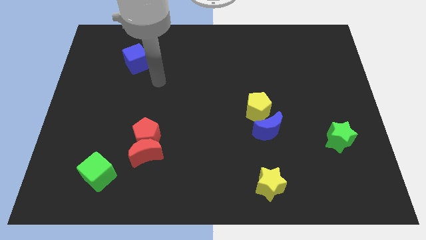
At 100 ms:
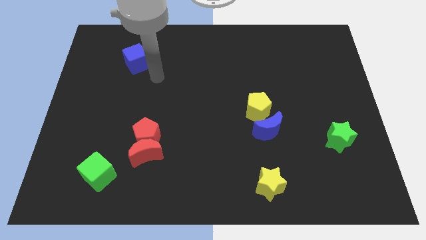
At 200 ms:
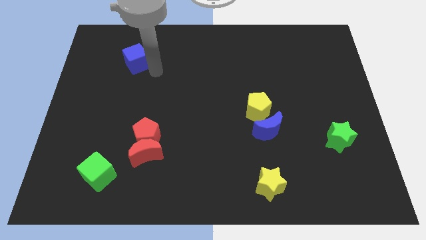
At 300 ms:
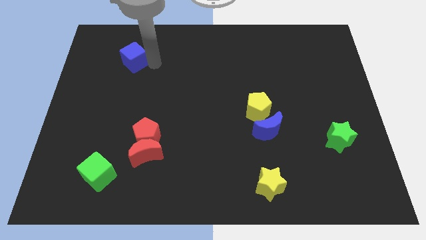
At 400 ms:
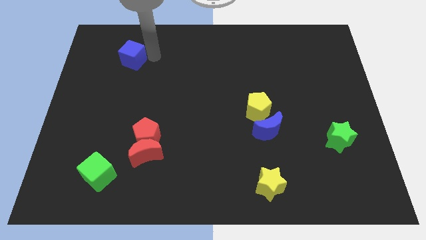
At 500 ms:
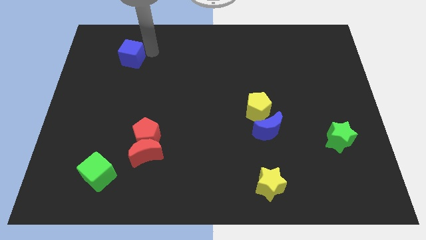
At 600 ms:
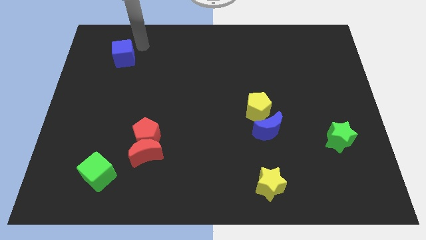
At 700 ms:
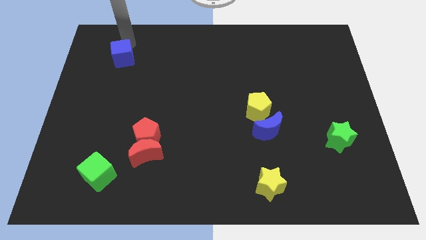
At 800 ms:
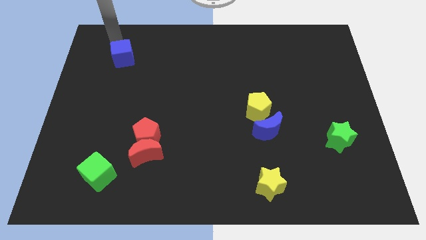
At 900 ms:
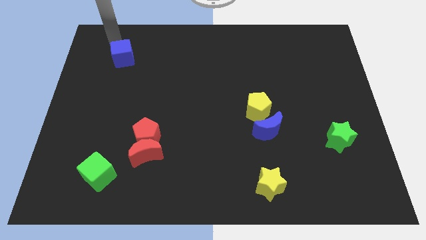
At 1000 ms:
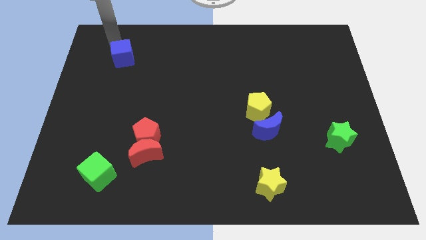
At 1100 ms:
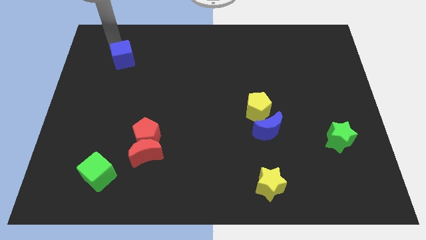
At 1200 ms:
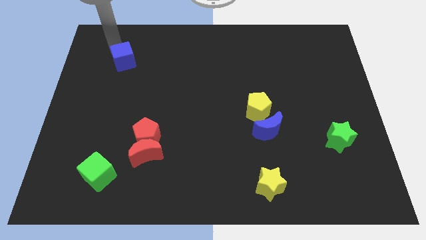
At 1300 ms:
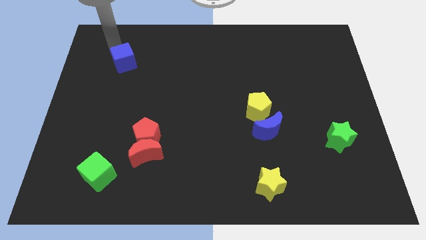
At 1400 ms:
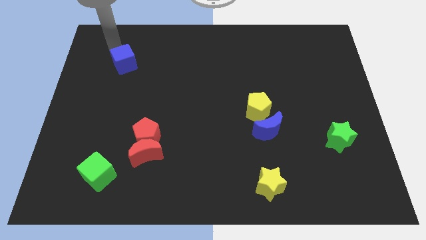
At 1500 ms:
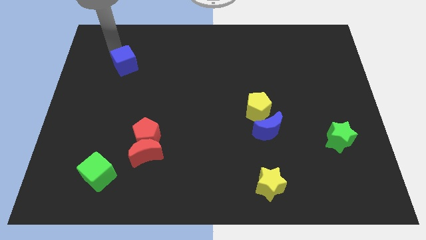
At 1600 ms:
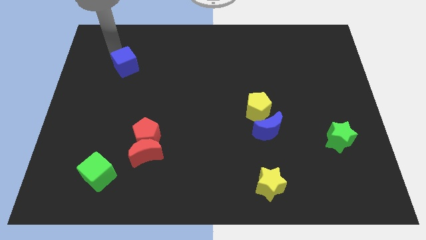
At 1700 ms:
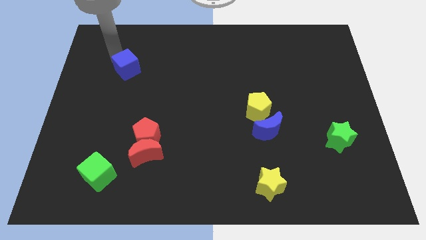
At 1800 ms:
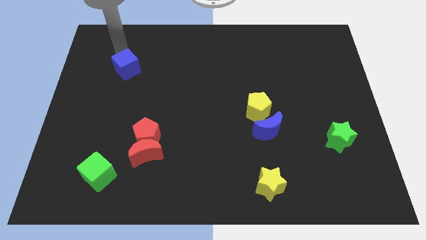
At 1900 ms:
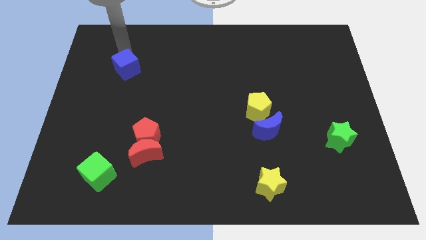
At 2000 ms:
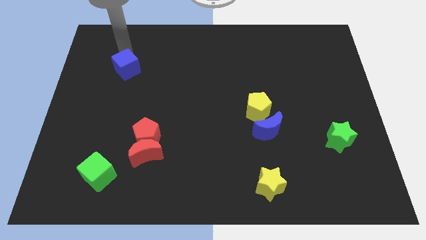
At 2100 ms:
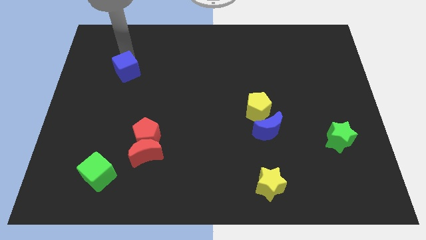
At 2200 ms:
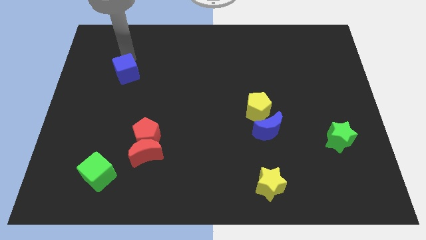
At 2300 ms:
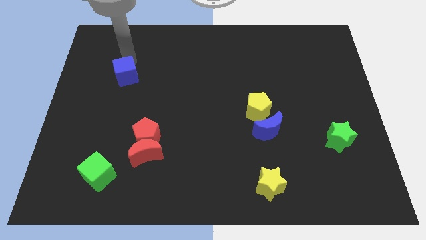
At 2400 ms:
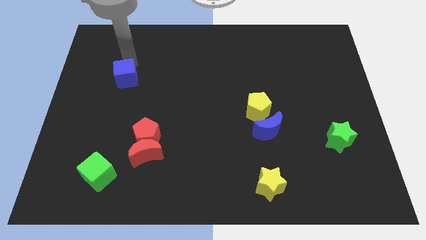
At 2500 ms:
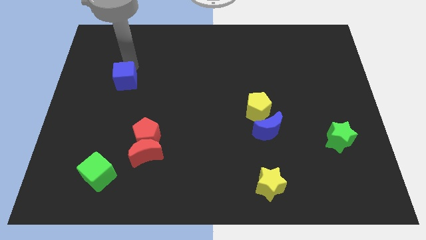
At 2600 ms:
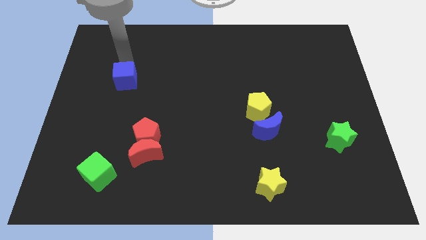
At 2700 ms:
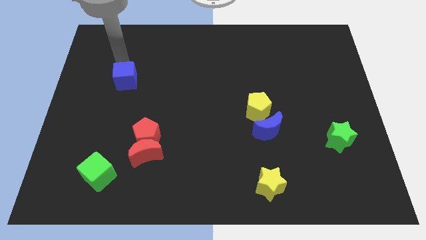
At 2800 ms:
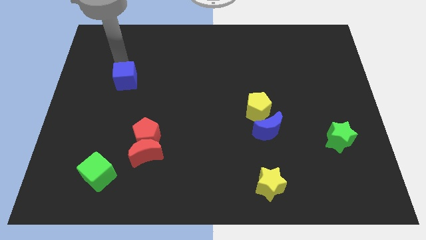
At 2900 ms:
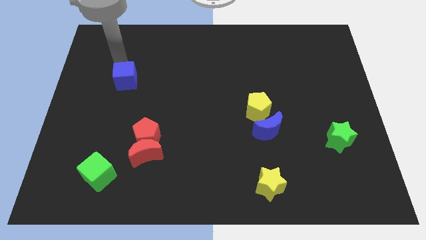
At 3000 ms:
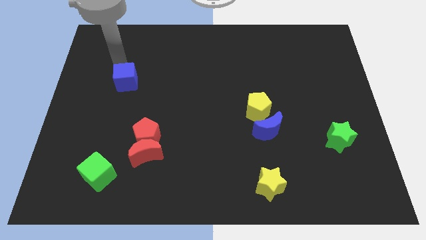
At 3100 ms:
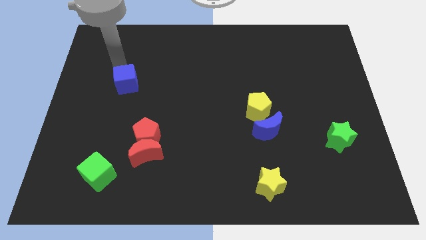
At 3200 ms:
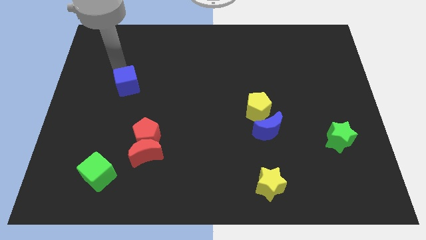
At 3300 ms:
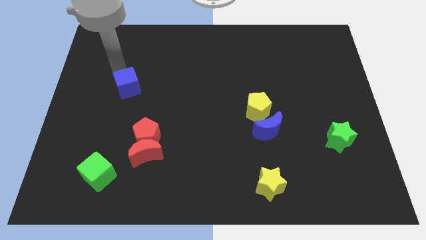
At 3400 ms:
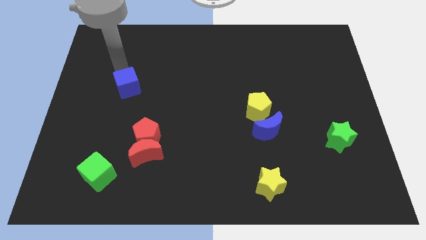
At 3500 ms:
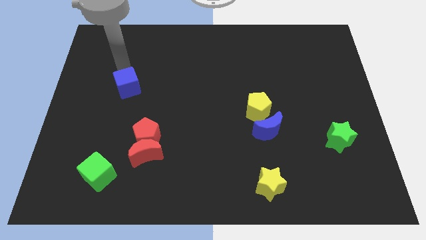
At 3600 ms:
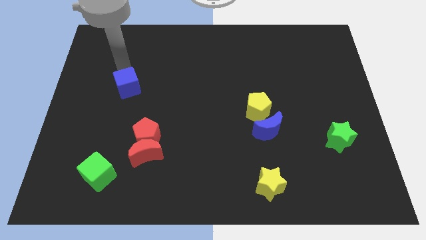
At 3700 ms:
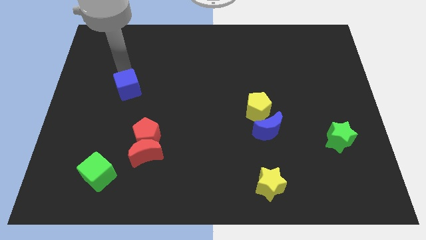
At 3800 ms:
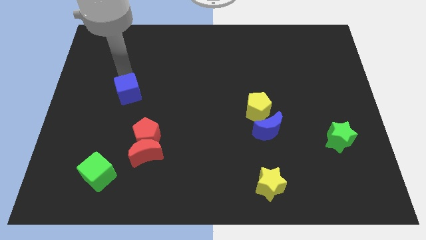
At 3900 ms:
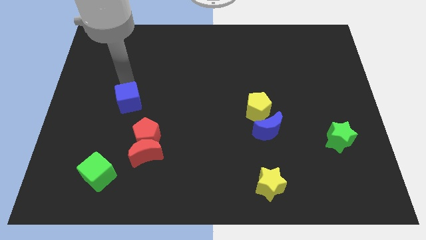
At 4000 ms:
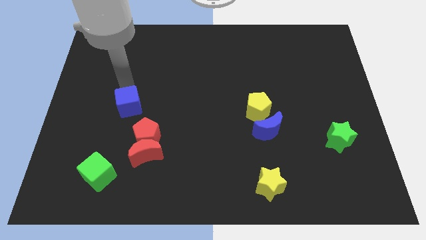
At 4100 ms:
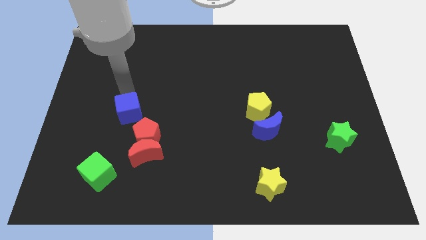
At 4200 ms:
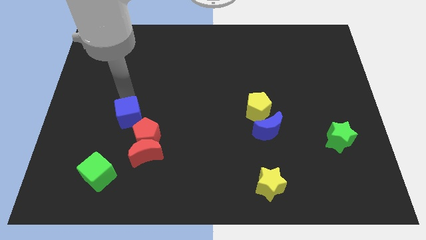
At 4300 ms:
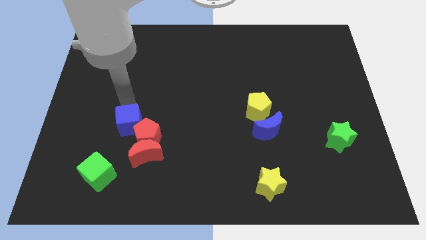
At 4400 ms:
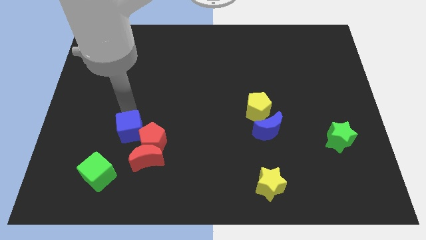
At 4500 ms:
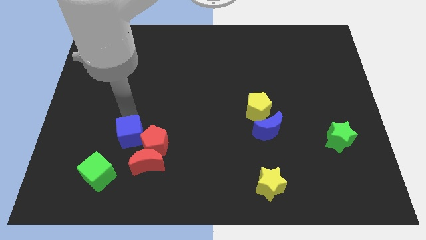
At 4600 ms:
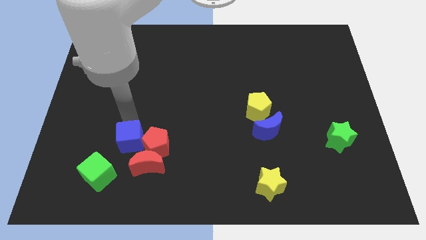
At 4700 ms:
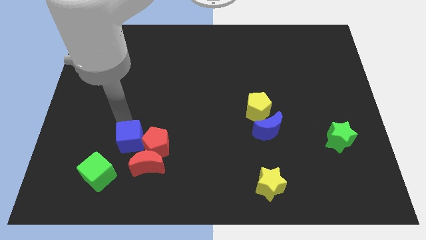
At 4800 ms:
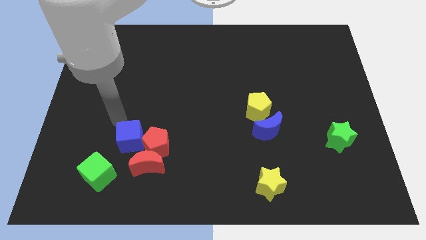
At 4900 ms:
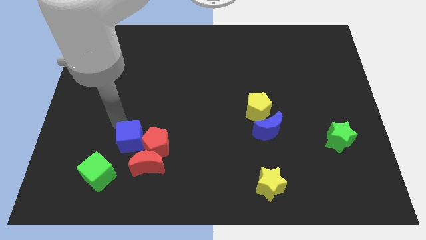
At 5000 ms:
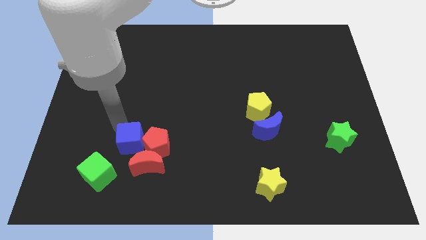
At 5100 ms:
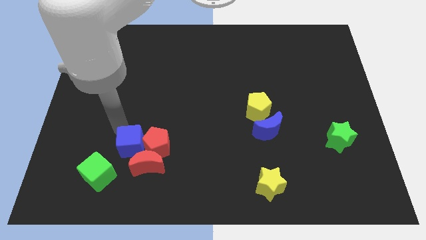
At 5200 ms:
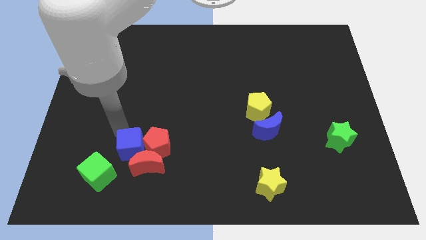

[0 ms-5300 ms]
put the blue cube next to the red moon

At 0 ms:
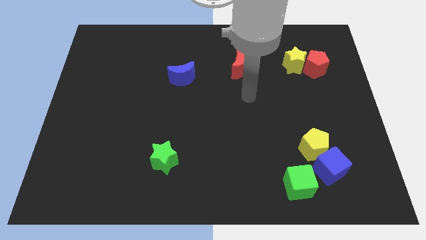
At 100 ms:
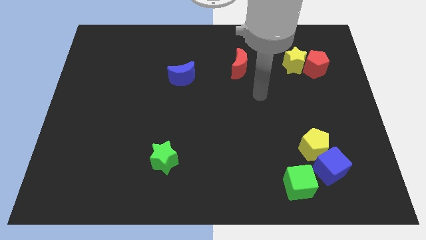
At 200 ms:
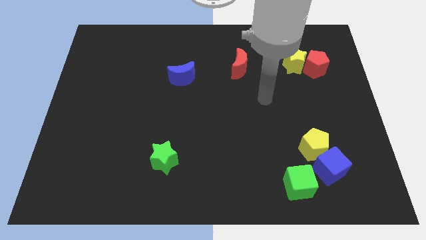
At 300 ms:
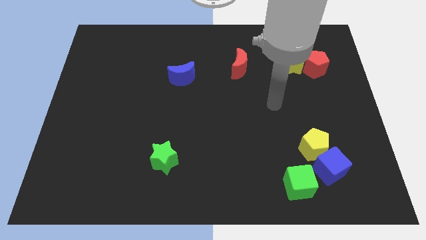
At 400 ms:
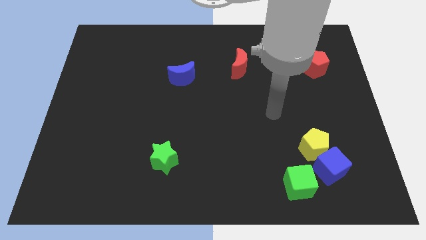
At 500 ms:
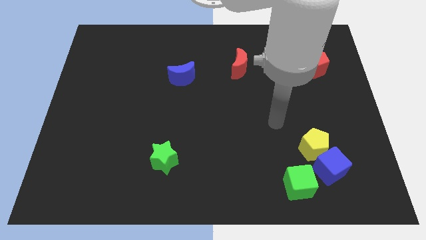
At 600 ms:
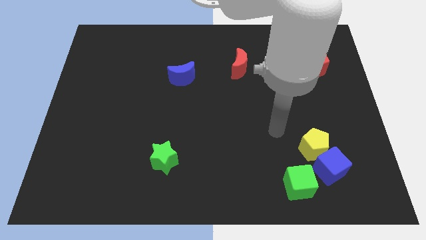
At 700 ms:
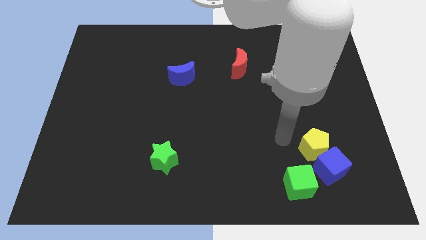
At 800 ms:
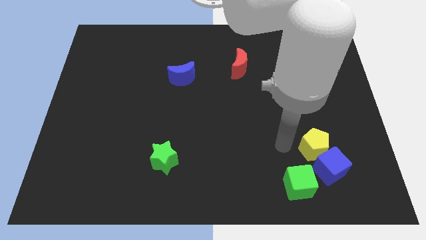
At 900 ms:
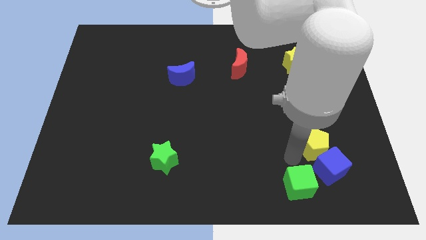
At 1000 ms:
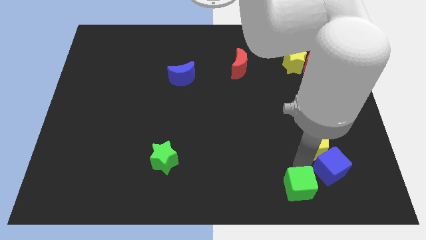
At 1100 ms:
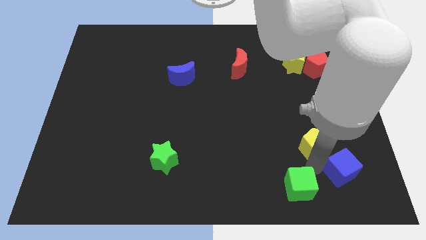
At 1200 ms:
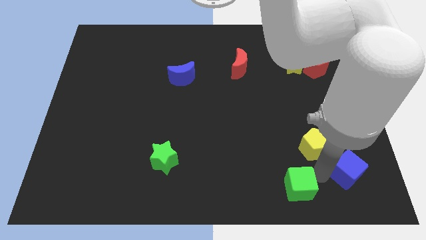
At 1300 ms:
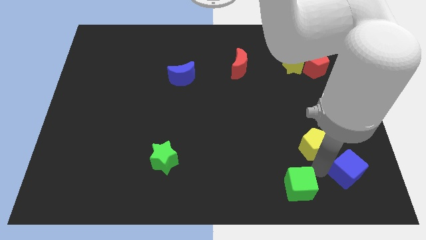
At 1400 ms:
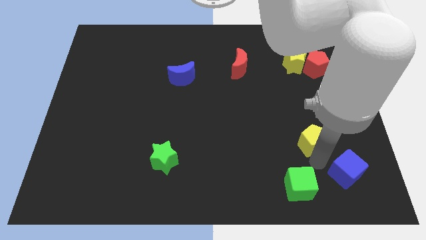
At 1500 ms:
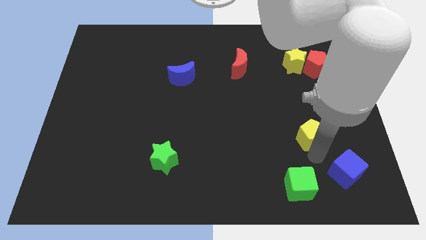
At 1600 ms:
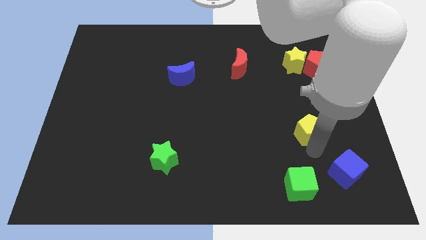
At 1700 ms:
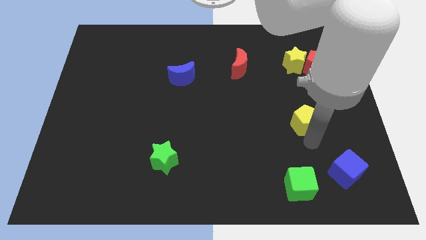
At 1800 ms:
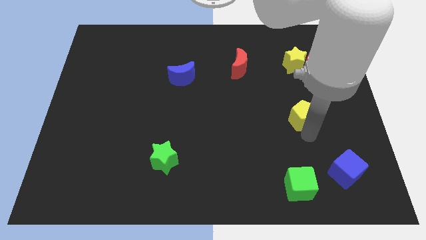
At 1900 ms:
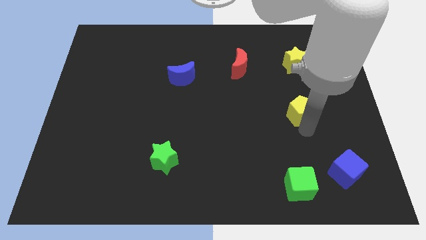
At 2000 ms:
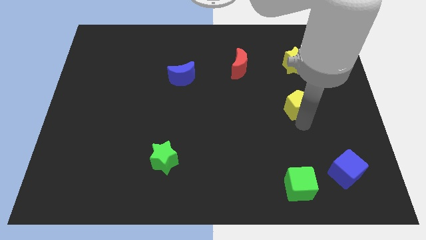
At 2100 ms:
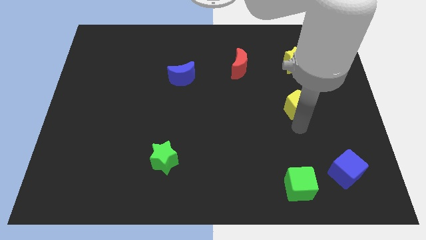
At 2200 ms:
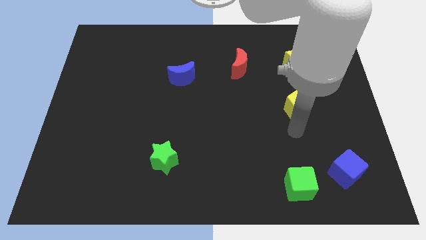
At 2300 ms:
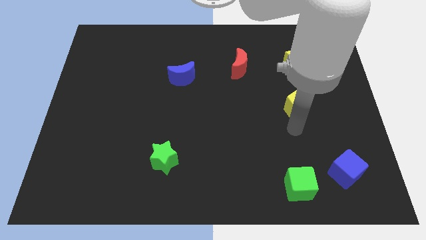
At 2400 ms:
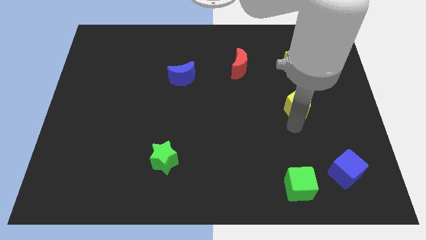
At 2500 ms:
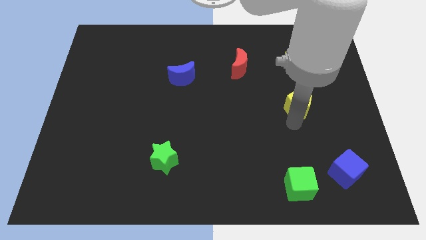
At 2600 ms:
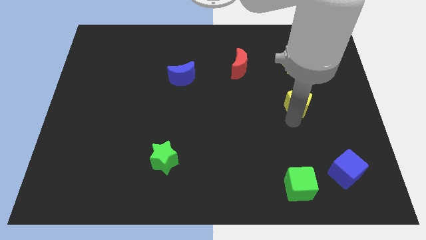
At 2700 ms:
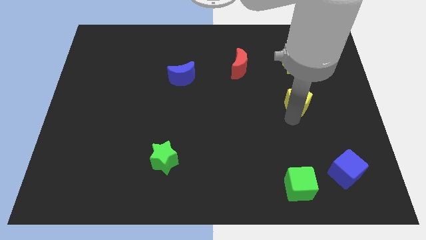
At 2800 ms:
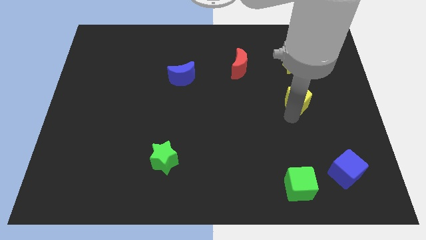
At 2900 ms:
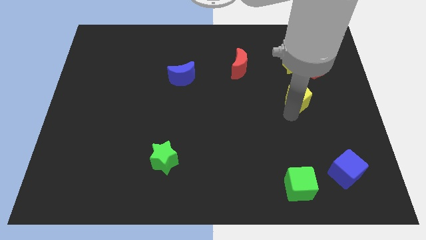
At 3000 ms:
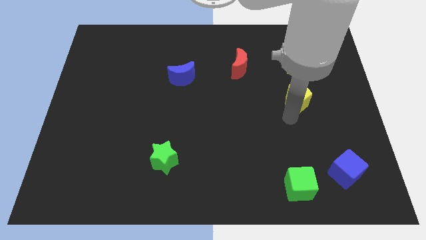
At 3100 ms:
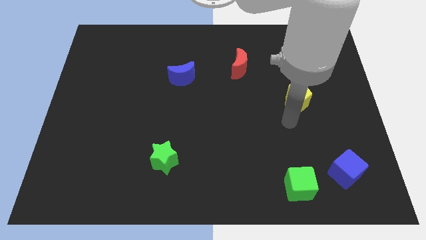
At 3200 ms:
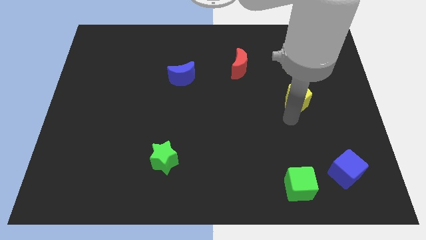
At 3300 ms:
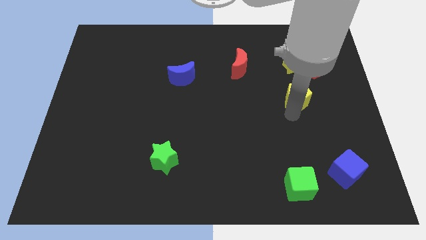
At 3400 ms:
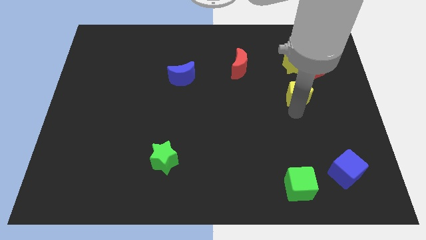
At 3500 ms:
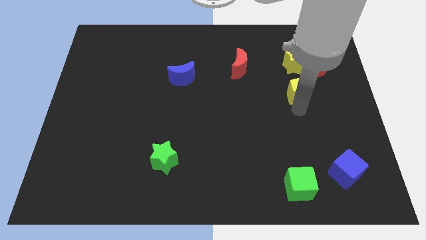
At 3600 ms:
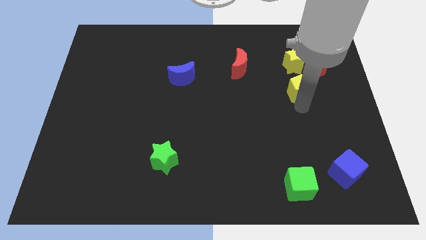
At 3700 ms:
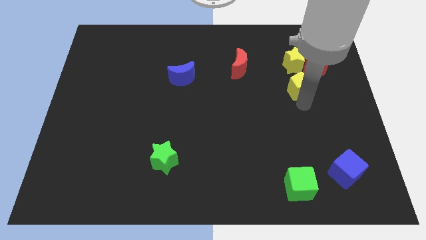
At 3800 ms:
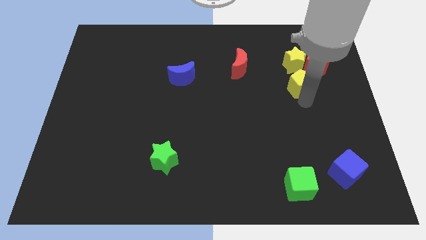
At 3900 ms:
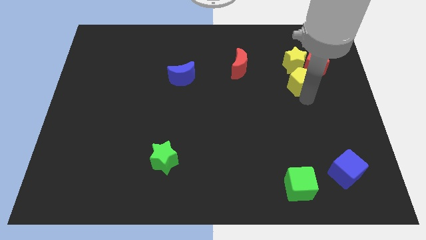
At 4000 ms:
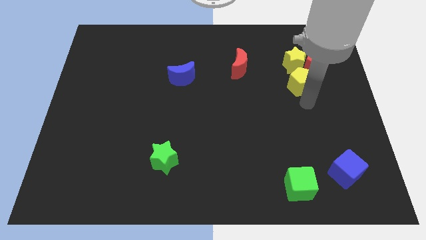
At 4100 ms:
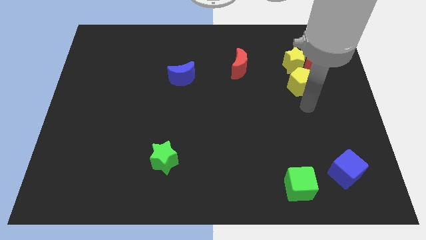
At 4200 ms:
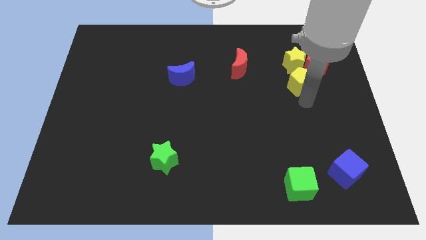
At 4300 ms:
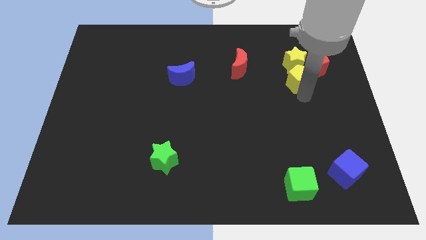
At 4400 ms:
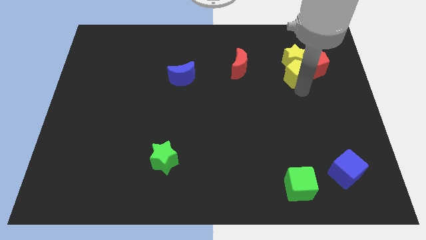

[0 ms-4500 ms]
put the yellow pentagon next to the yellow star
